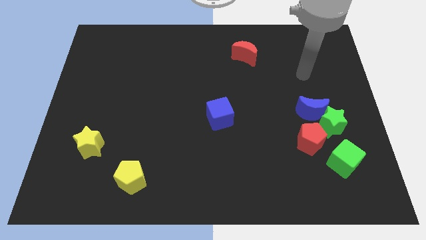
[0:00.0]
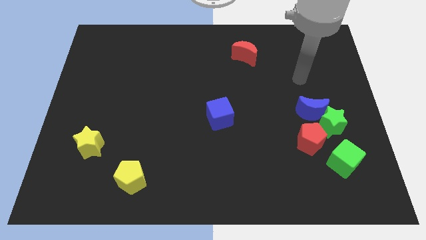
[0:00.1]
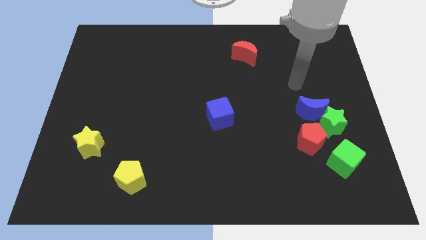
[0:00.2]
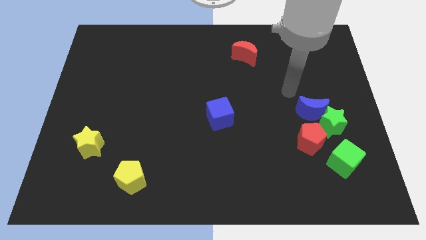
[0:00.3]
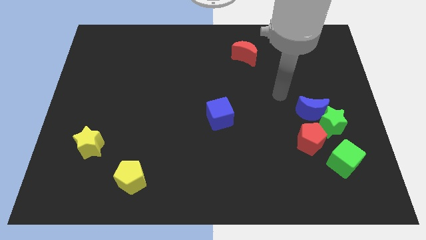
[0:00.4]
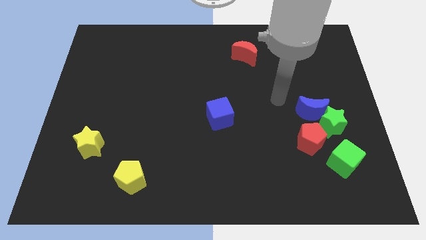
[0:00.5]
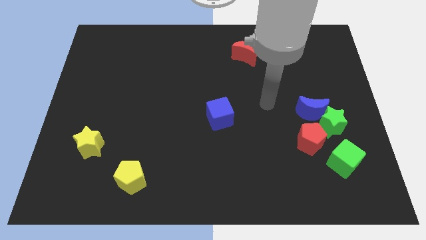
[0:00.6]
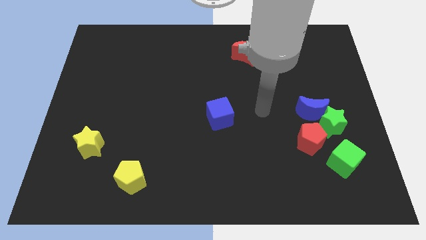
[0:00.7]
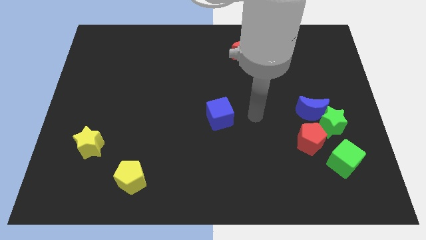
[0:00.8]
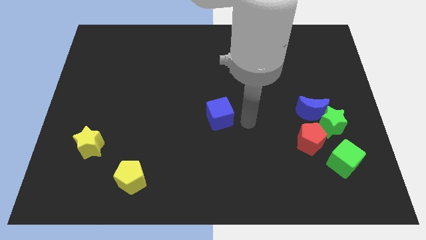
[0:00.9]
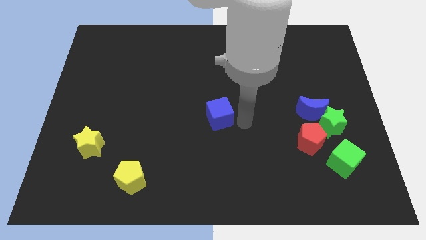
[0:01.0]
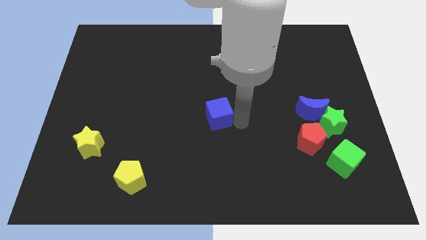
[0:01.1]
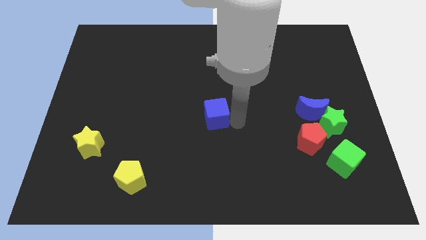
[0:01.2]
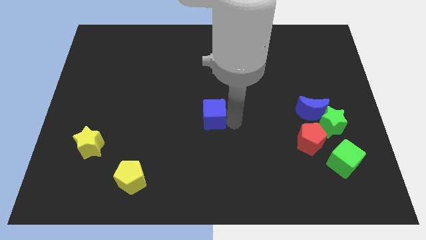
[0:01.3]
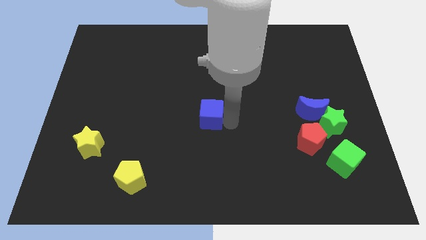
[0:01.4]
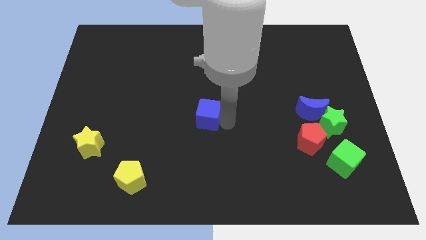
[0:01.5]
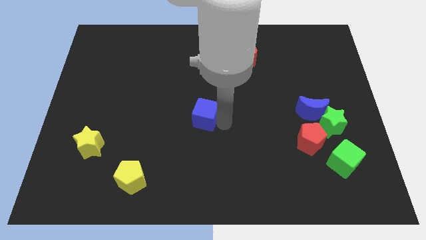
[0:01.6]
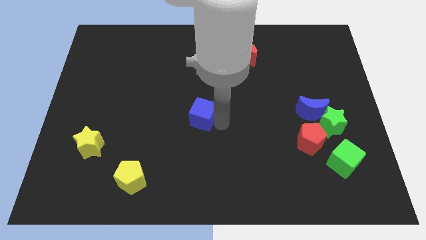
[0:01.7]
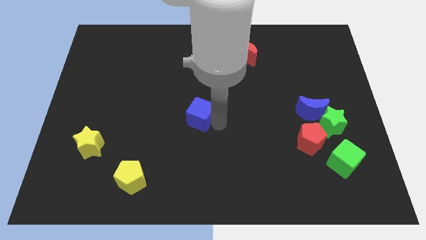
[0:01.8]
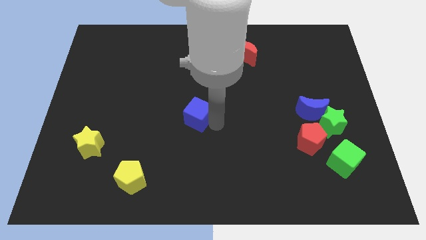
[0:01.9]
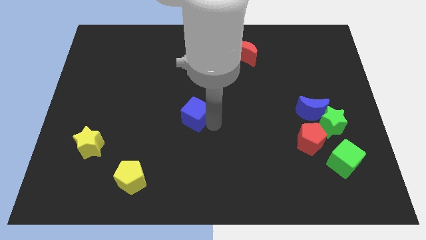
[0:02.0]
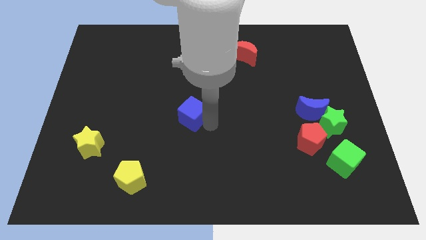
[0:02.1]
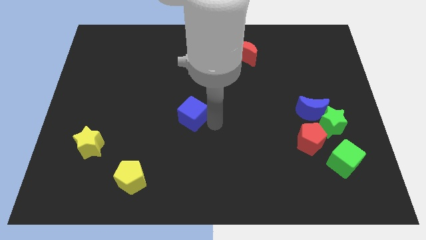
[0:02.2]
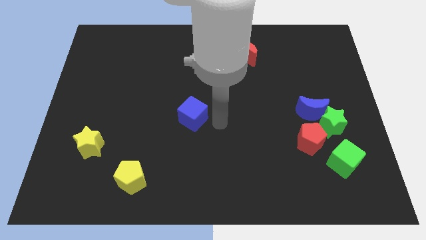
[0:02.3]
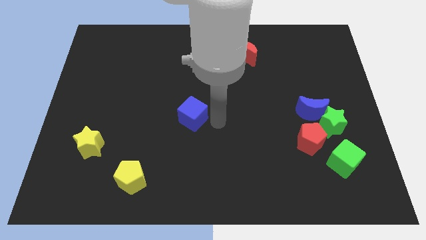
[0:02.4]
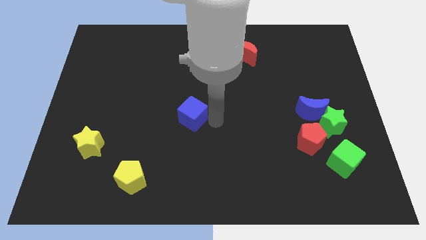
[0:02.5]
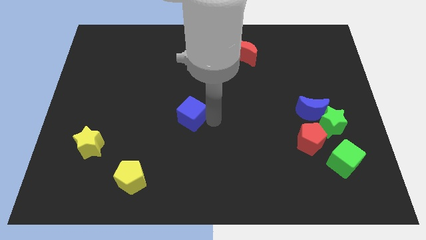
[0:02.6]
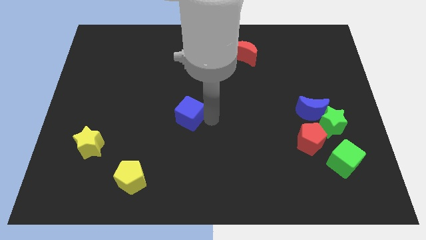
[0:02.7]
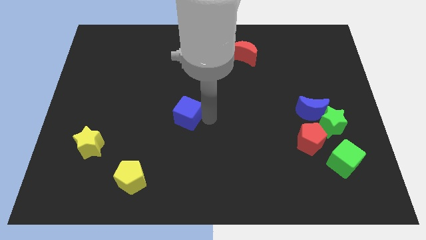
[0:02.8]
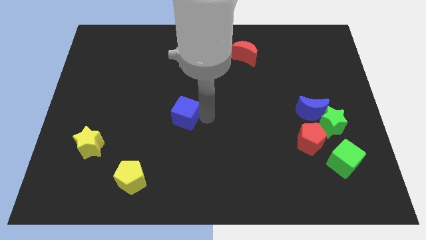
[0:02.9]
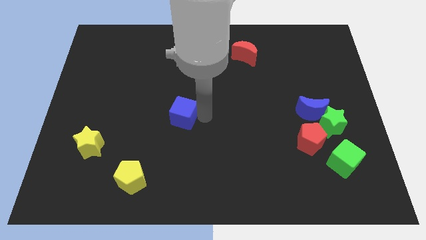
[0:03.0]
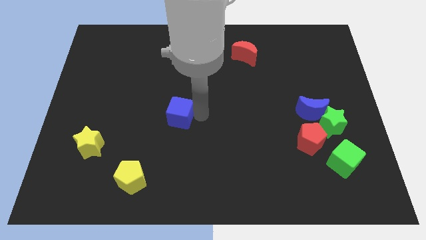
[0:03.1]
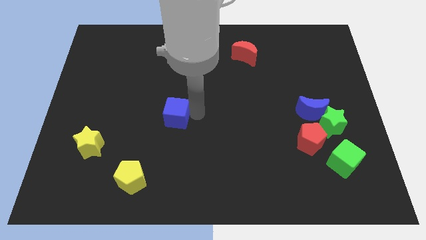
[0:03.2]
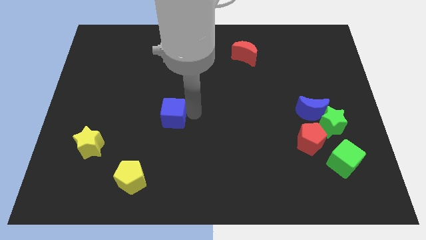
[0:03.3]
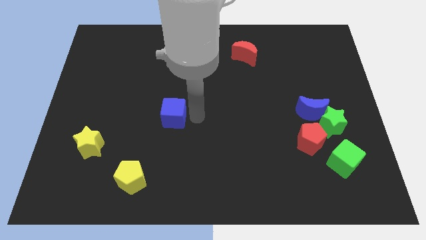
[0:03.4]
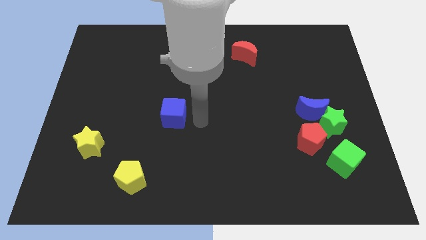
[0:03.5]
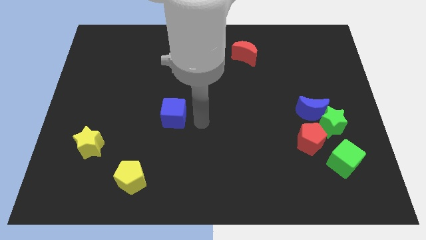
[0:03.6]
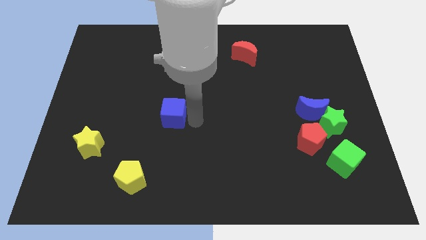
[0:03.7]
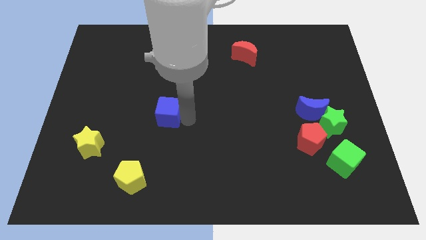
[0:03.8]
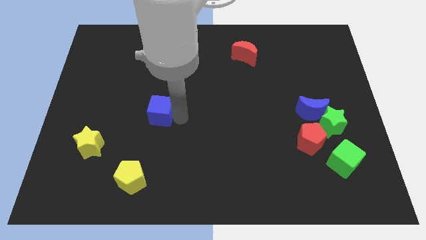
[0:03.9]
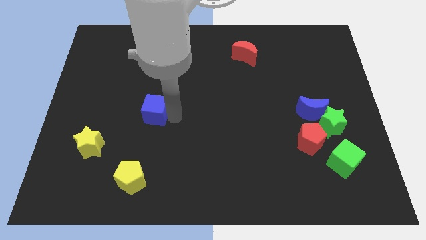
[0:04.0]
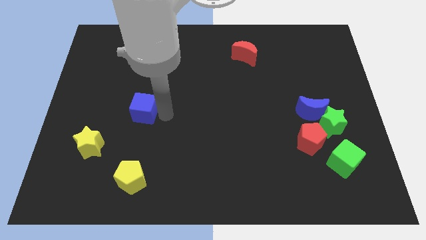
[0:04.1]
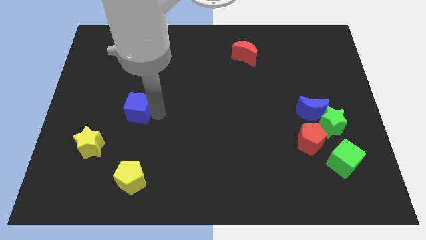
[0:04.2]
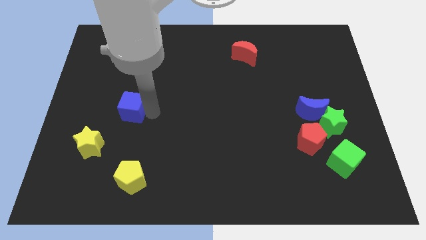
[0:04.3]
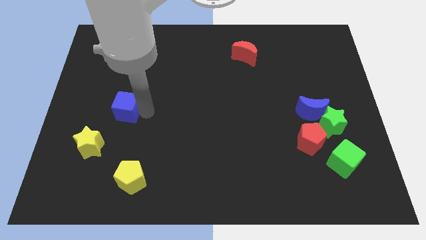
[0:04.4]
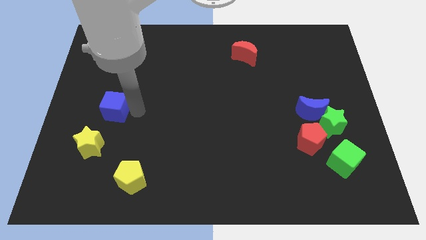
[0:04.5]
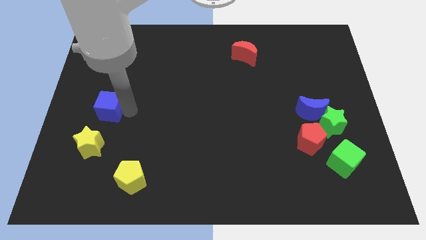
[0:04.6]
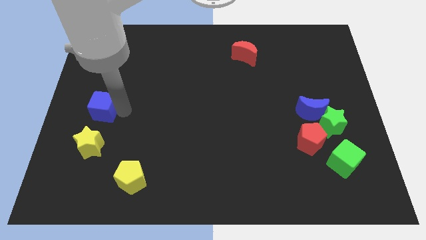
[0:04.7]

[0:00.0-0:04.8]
slide the blue cube to the left side

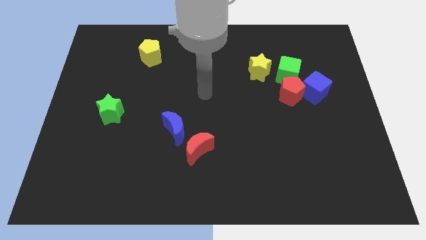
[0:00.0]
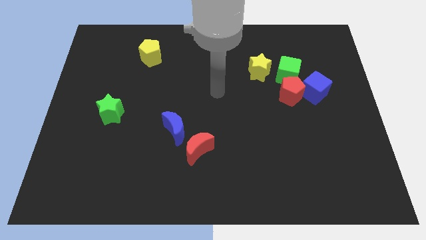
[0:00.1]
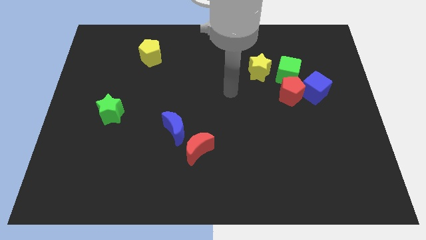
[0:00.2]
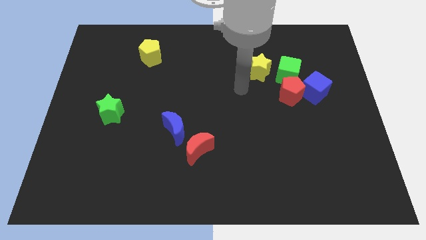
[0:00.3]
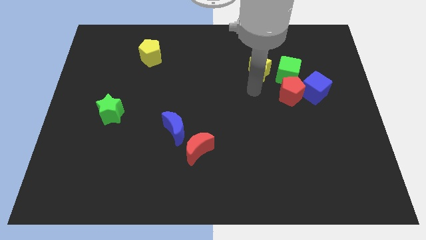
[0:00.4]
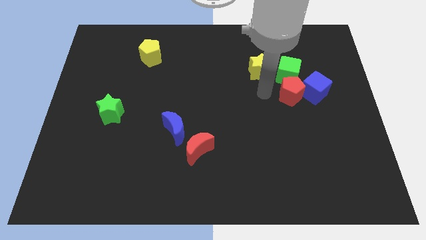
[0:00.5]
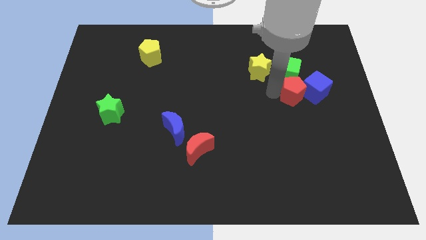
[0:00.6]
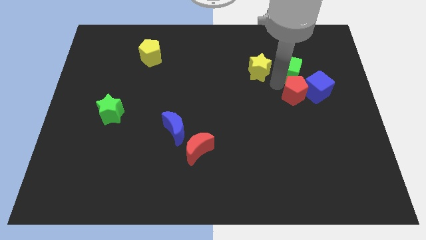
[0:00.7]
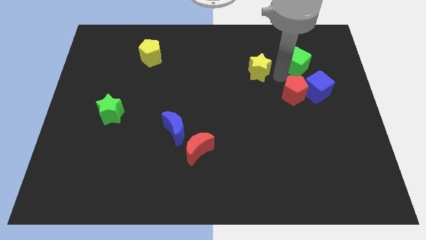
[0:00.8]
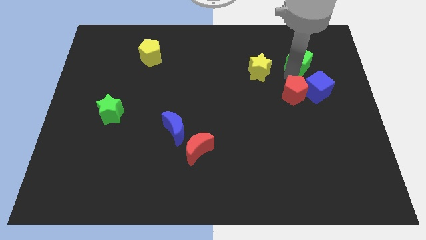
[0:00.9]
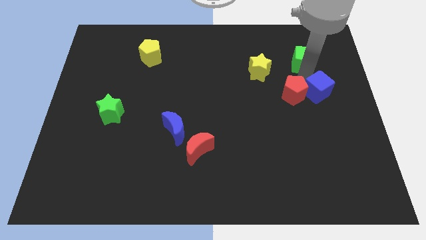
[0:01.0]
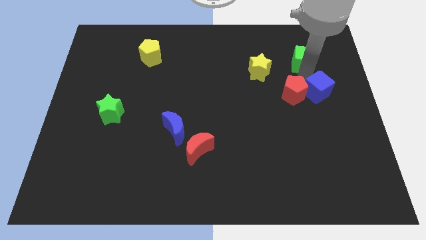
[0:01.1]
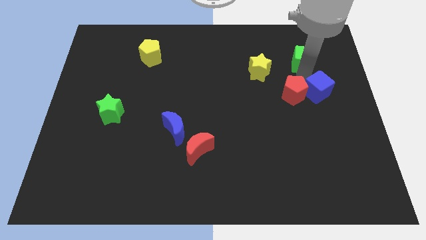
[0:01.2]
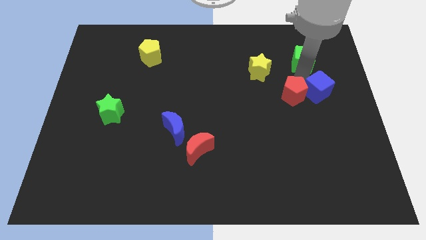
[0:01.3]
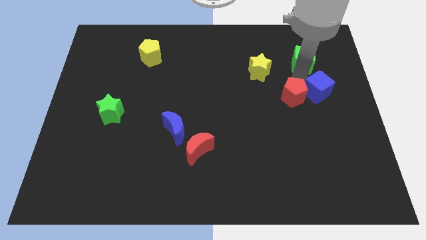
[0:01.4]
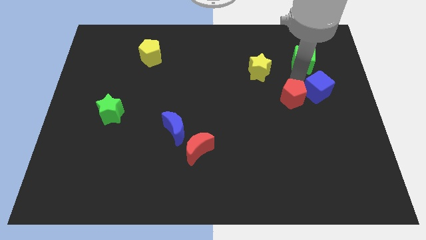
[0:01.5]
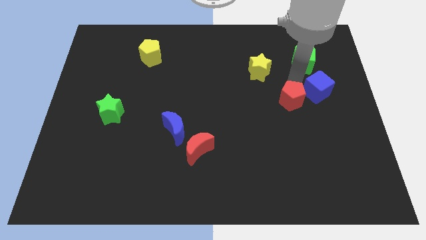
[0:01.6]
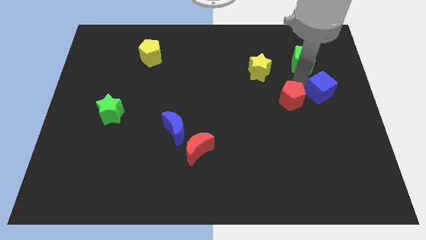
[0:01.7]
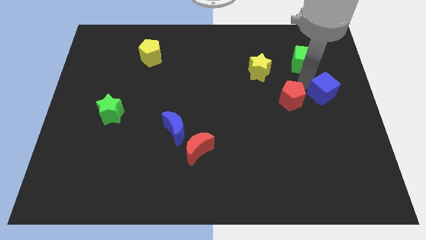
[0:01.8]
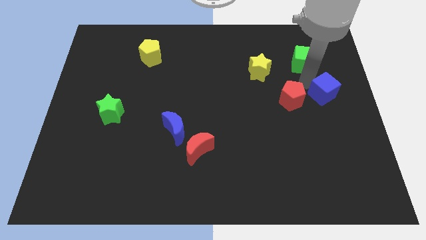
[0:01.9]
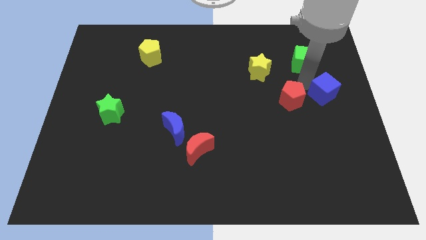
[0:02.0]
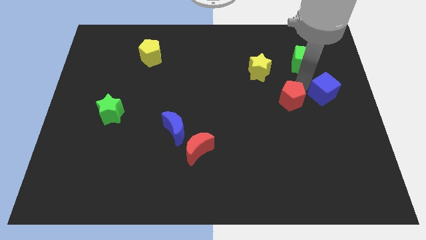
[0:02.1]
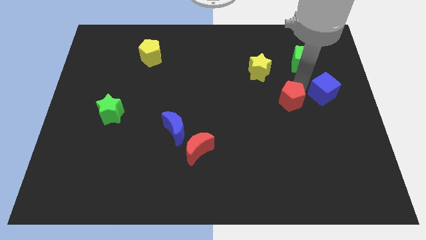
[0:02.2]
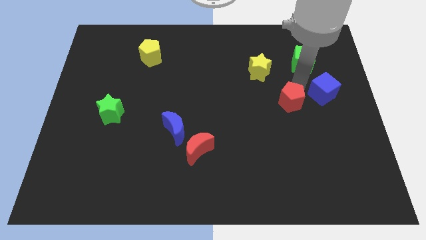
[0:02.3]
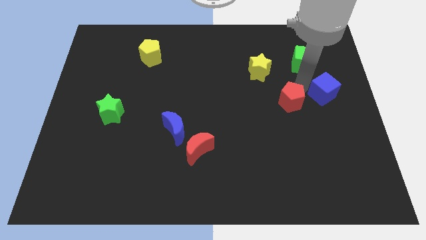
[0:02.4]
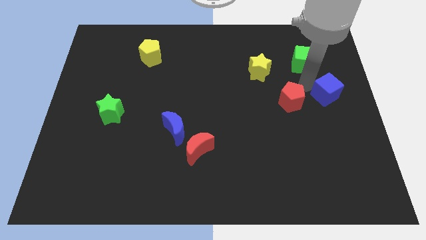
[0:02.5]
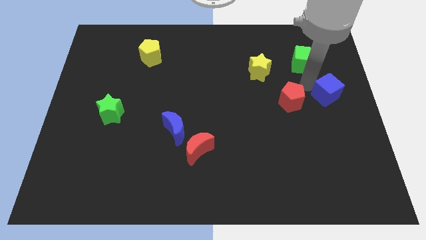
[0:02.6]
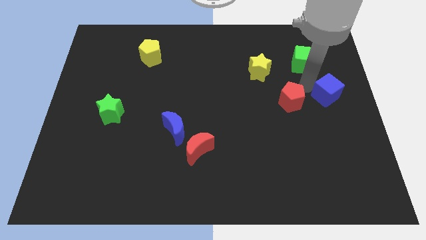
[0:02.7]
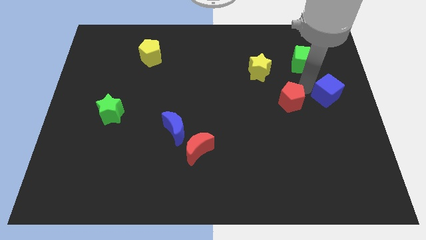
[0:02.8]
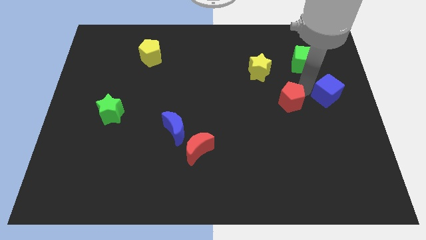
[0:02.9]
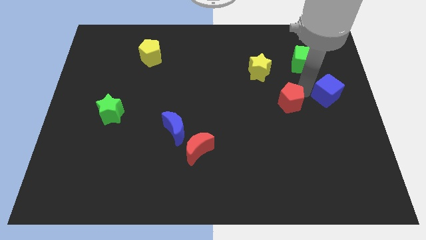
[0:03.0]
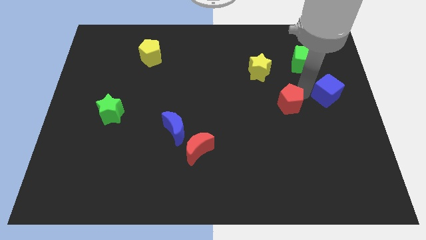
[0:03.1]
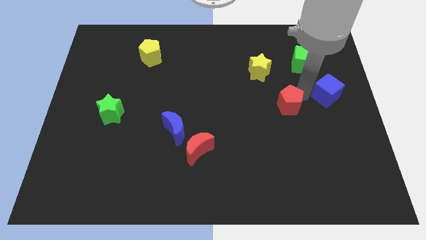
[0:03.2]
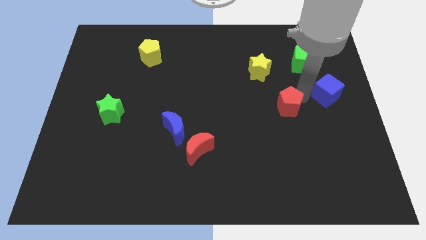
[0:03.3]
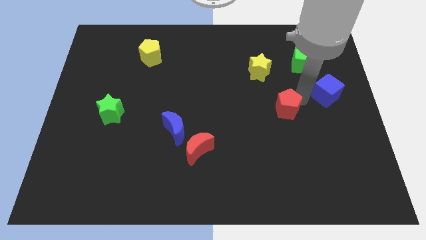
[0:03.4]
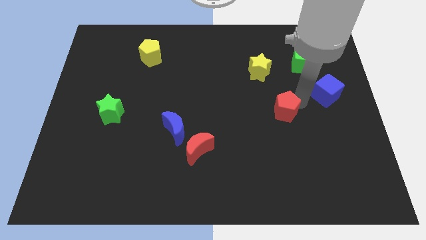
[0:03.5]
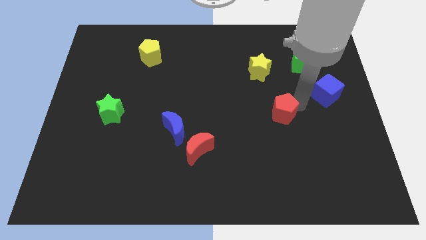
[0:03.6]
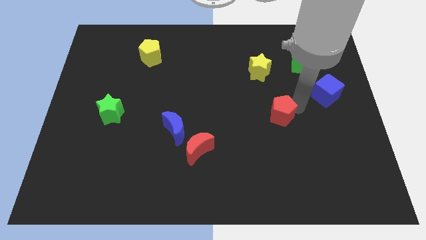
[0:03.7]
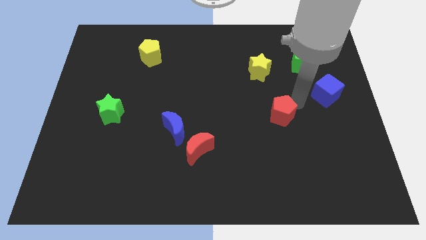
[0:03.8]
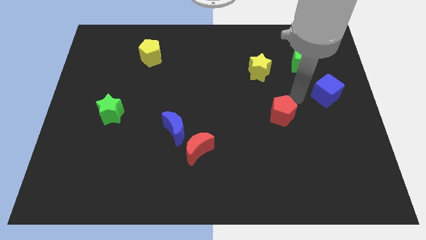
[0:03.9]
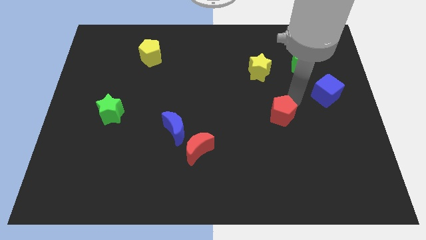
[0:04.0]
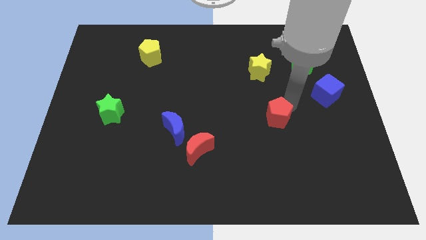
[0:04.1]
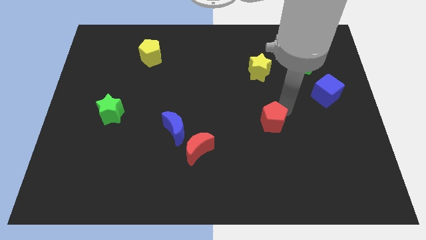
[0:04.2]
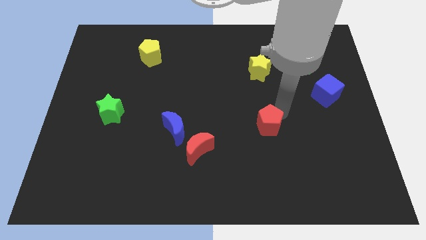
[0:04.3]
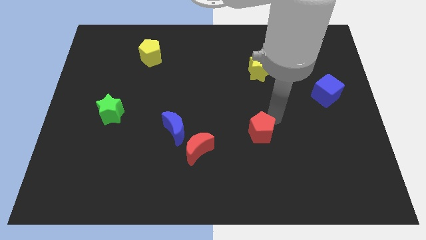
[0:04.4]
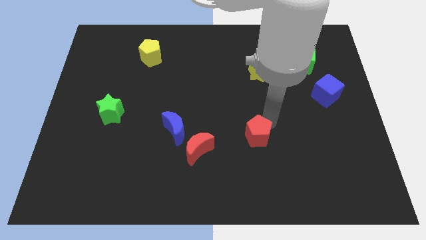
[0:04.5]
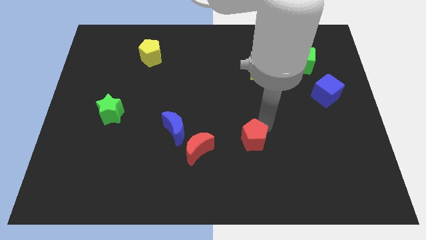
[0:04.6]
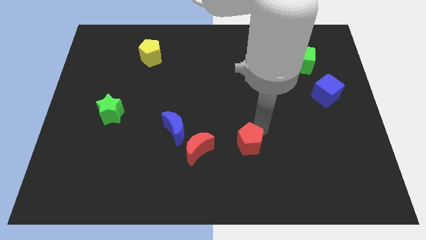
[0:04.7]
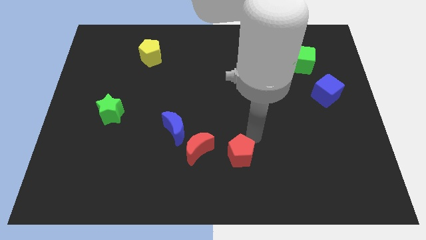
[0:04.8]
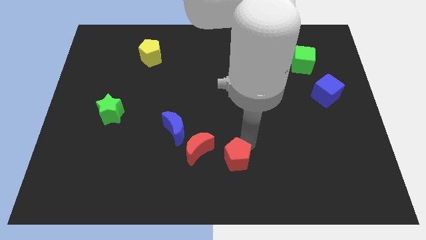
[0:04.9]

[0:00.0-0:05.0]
put the red pentagon to the bottom
